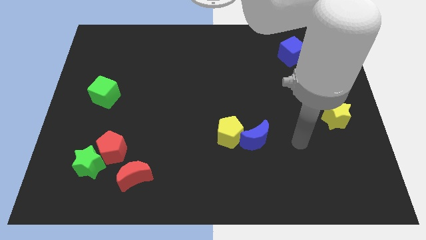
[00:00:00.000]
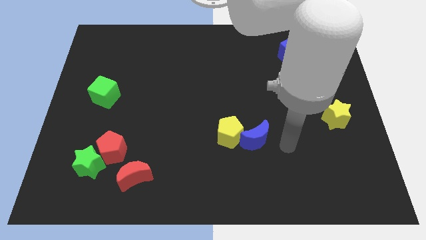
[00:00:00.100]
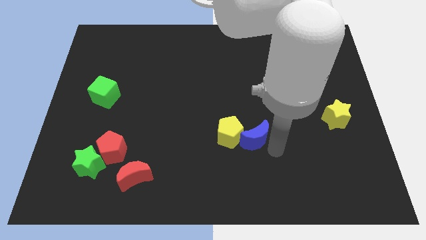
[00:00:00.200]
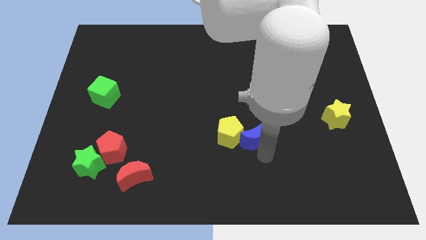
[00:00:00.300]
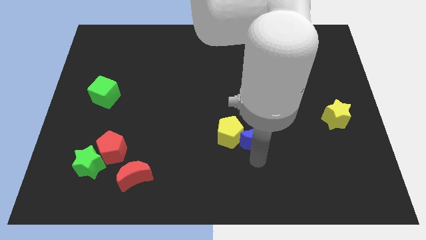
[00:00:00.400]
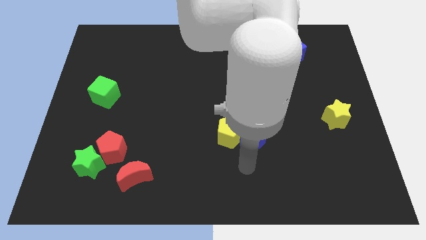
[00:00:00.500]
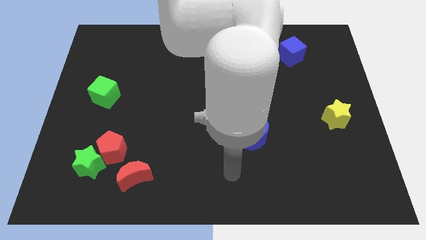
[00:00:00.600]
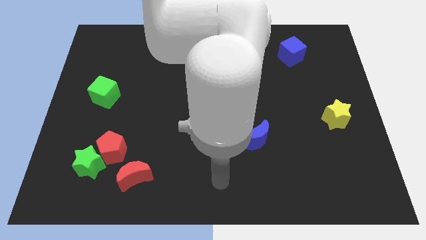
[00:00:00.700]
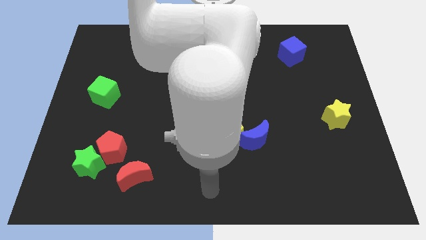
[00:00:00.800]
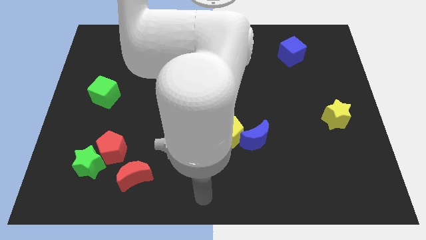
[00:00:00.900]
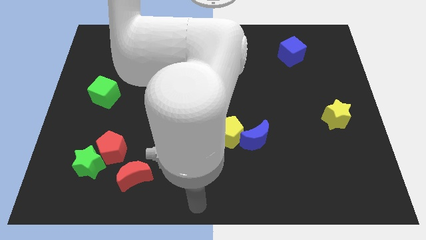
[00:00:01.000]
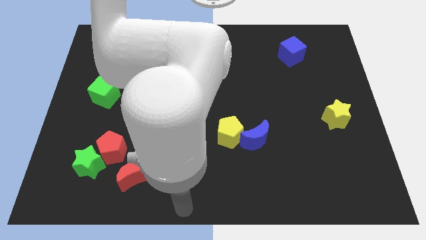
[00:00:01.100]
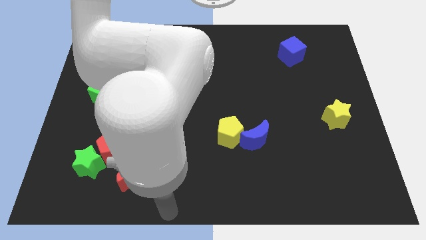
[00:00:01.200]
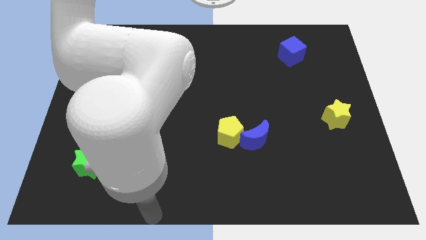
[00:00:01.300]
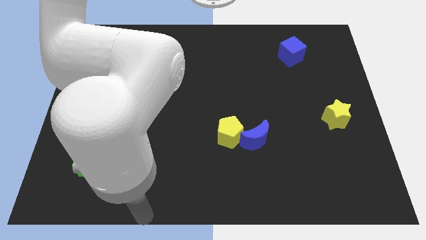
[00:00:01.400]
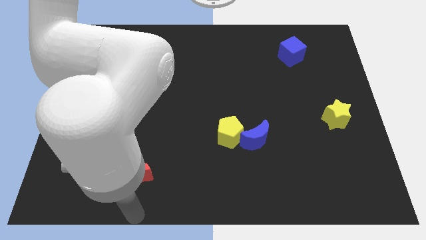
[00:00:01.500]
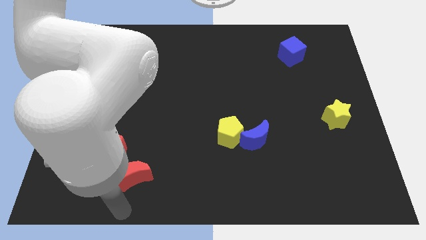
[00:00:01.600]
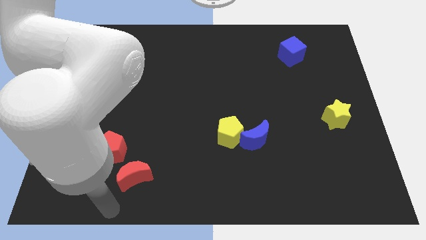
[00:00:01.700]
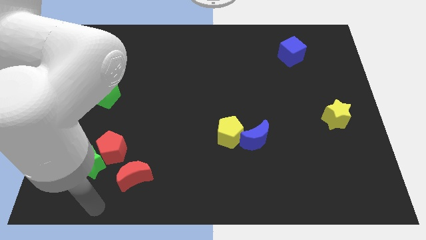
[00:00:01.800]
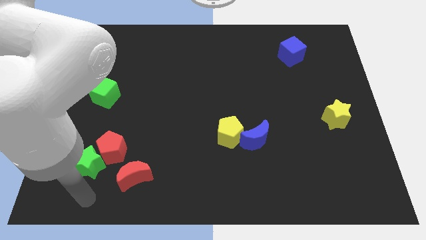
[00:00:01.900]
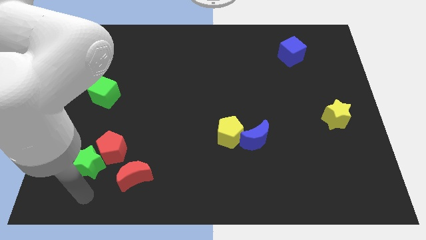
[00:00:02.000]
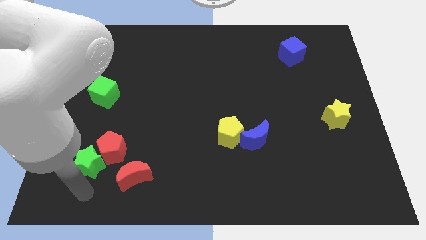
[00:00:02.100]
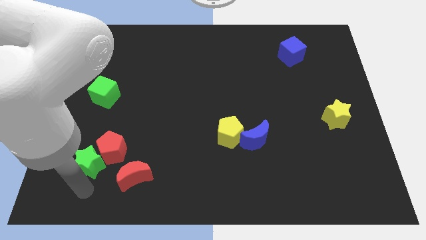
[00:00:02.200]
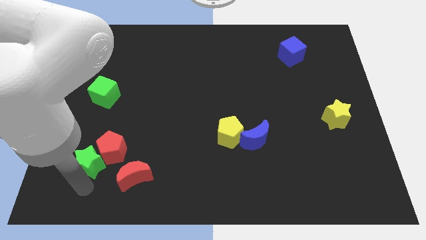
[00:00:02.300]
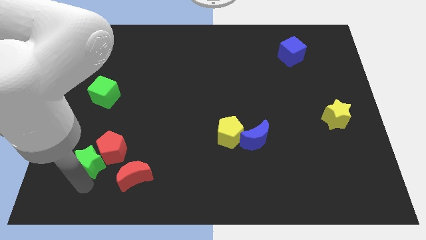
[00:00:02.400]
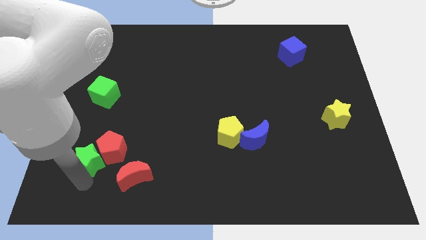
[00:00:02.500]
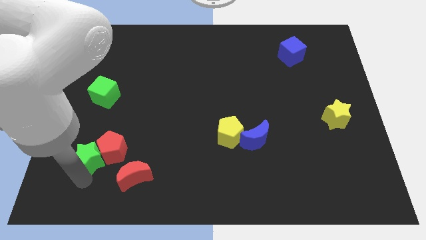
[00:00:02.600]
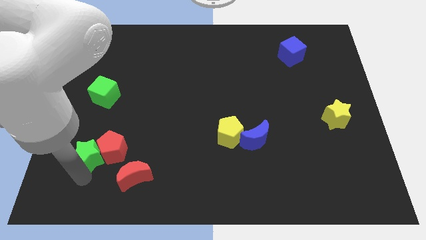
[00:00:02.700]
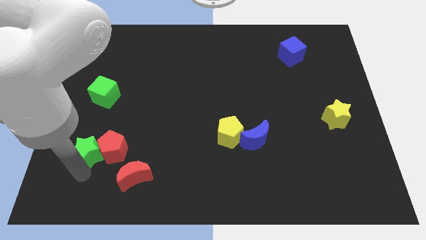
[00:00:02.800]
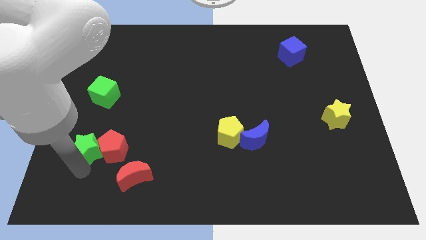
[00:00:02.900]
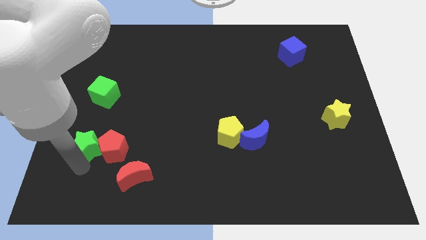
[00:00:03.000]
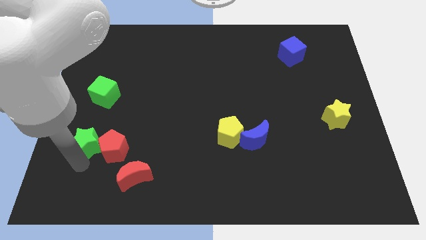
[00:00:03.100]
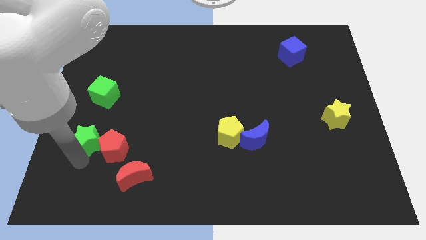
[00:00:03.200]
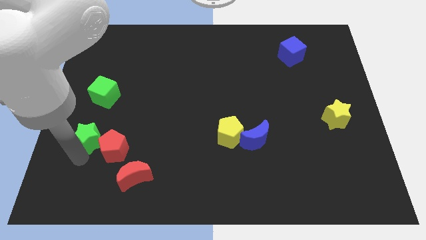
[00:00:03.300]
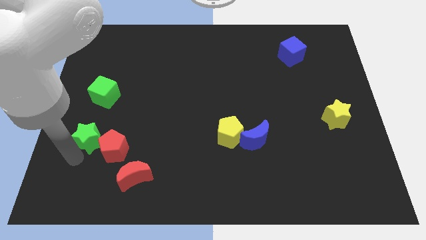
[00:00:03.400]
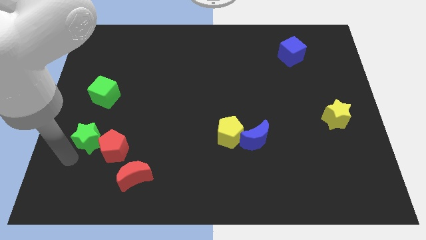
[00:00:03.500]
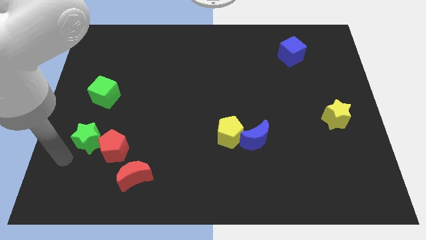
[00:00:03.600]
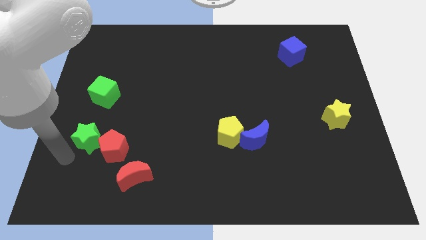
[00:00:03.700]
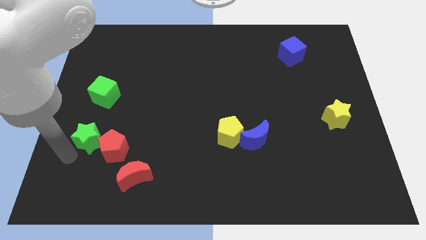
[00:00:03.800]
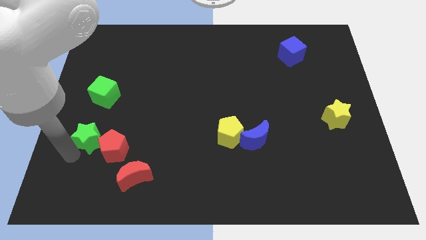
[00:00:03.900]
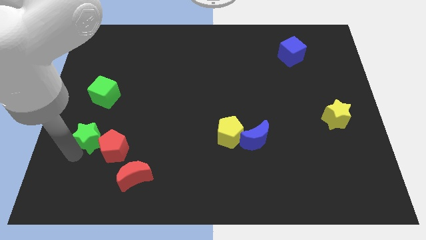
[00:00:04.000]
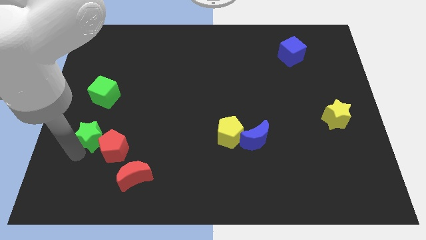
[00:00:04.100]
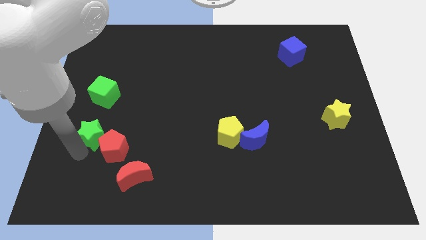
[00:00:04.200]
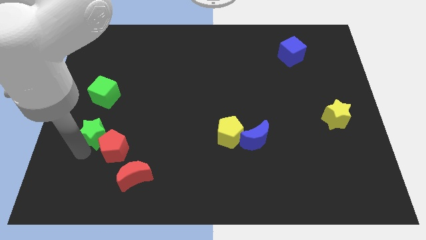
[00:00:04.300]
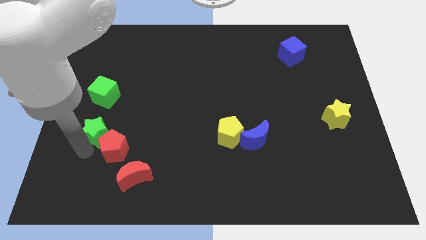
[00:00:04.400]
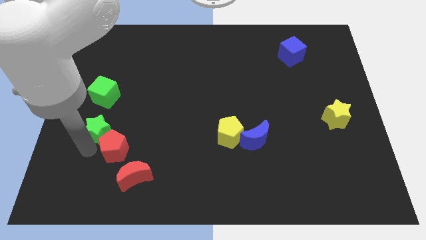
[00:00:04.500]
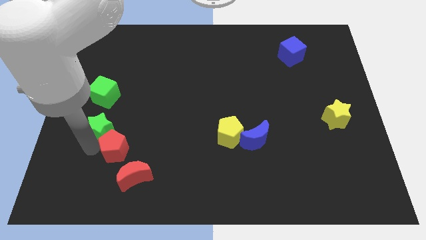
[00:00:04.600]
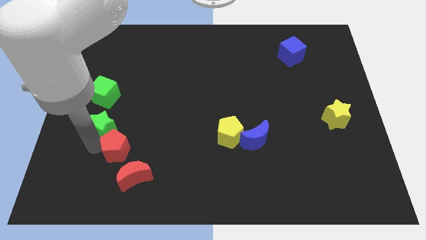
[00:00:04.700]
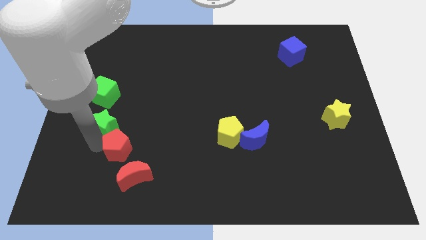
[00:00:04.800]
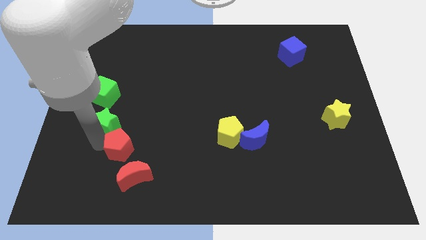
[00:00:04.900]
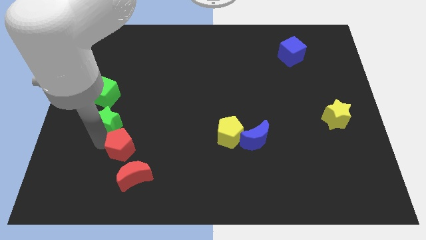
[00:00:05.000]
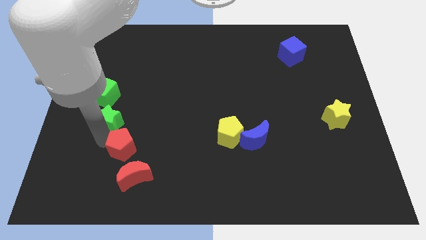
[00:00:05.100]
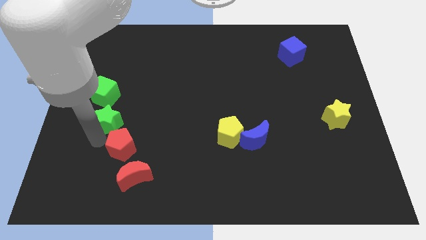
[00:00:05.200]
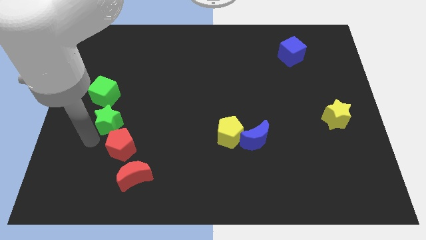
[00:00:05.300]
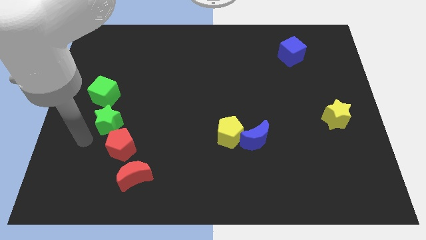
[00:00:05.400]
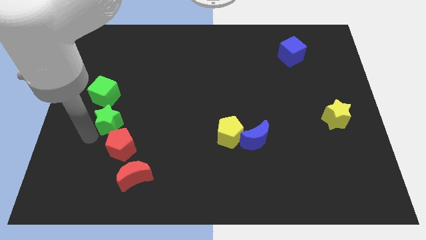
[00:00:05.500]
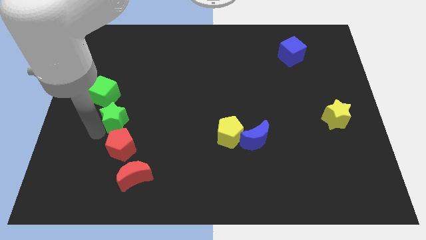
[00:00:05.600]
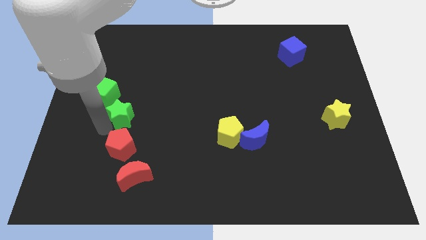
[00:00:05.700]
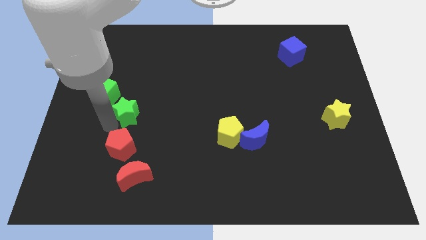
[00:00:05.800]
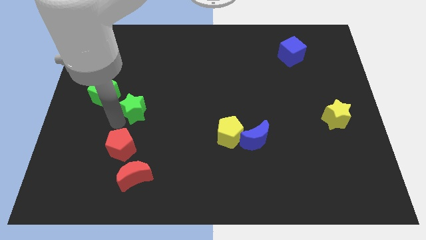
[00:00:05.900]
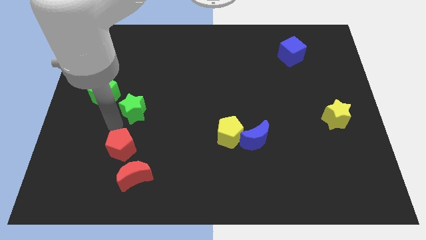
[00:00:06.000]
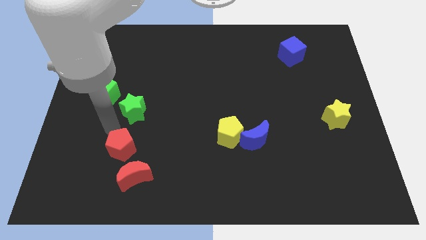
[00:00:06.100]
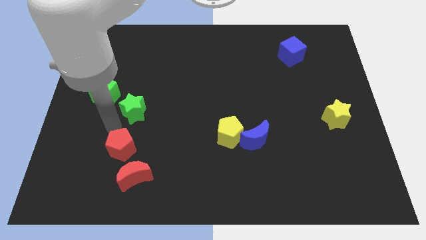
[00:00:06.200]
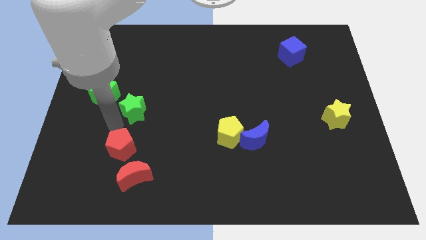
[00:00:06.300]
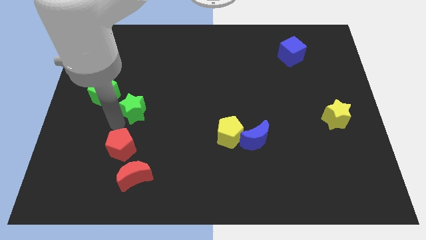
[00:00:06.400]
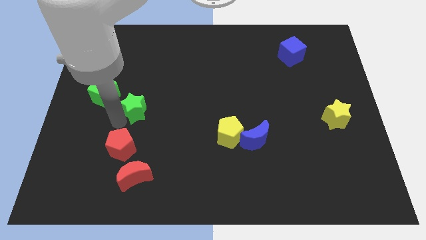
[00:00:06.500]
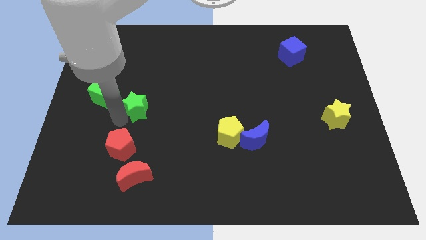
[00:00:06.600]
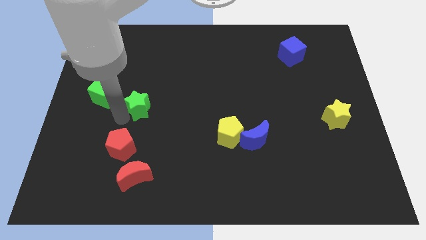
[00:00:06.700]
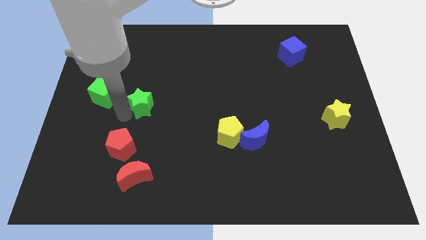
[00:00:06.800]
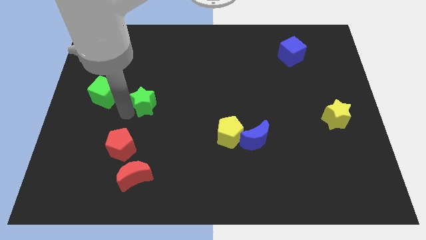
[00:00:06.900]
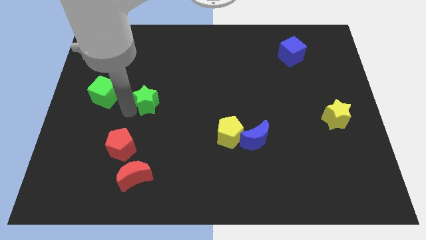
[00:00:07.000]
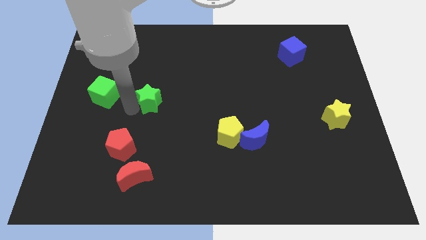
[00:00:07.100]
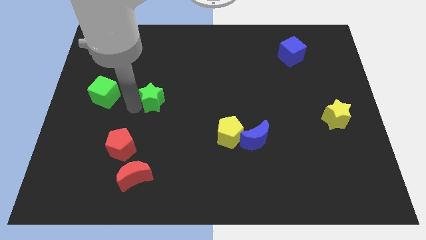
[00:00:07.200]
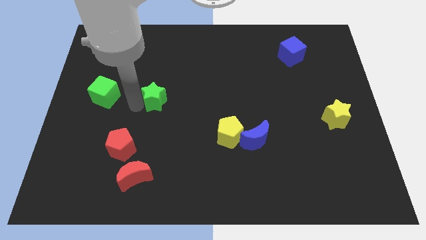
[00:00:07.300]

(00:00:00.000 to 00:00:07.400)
push the green star diagonally upwards and right

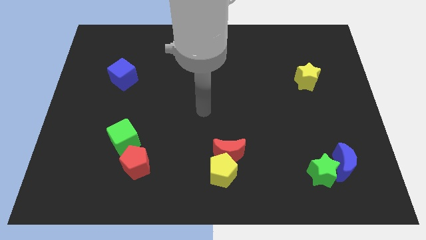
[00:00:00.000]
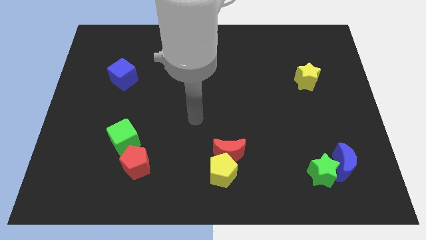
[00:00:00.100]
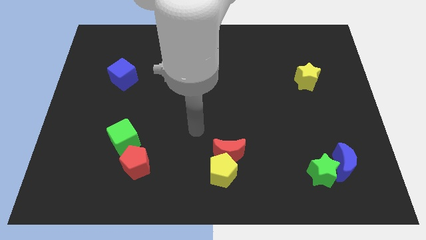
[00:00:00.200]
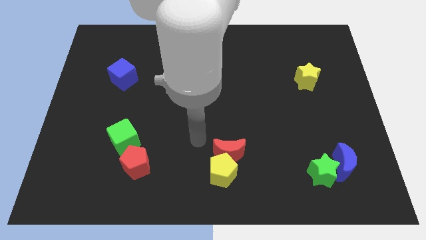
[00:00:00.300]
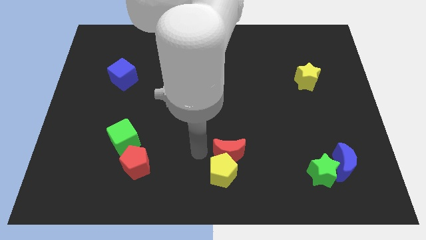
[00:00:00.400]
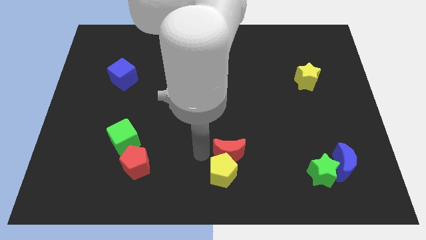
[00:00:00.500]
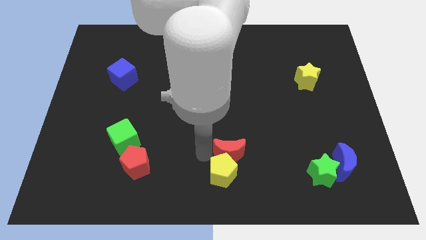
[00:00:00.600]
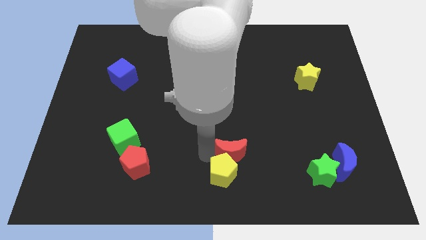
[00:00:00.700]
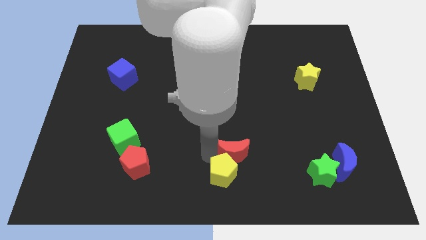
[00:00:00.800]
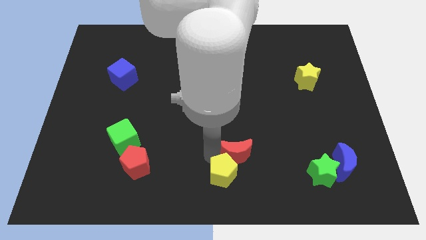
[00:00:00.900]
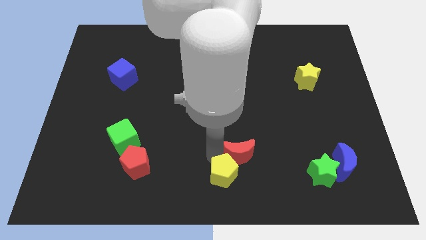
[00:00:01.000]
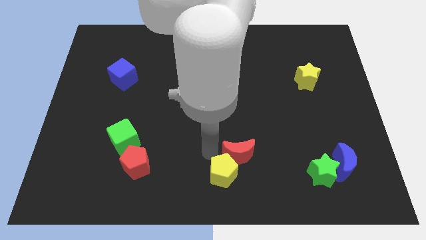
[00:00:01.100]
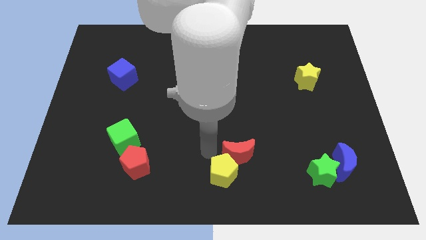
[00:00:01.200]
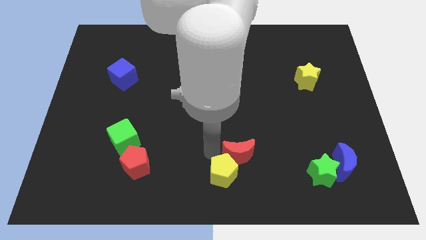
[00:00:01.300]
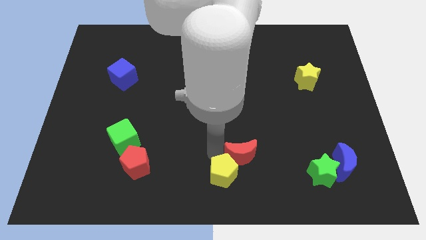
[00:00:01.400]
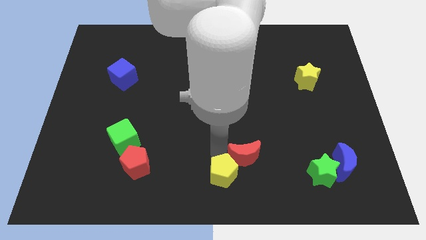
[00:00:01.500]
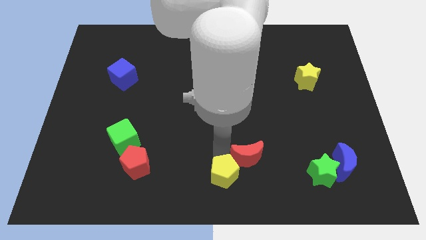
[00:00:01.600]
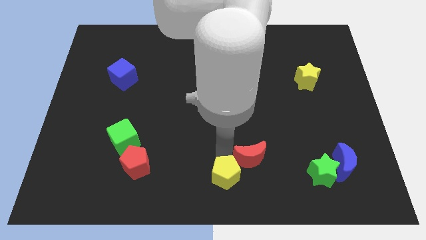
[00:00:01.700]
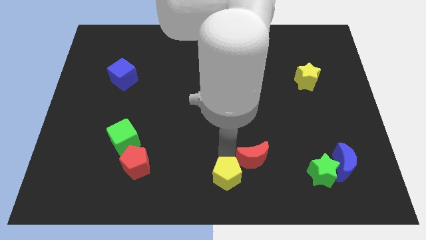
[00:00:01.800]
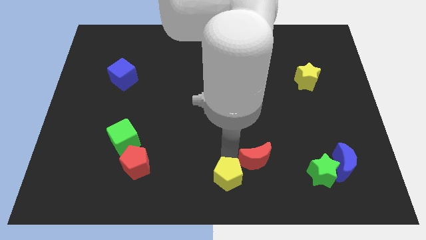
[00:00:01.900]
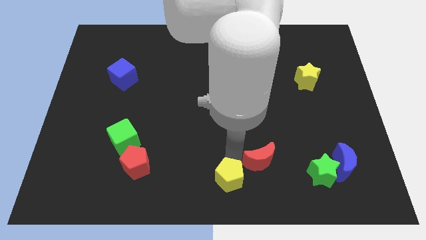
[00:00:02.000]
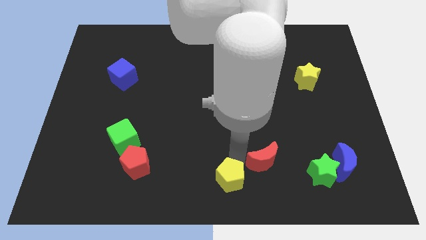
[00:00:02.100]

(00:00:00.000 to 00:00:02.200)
slide the red moon to the right slightly
